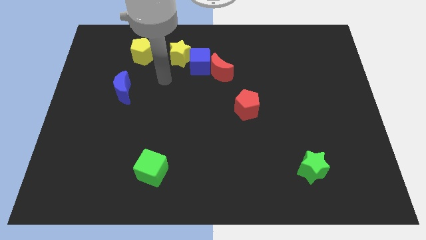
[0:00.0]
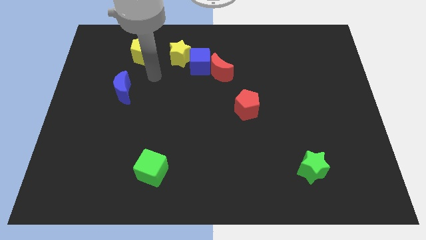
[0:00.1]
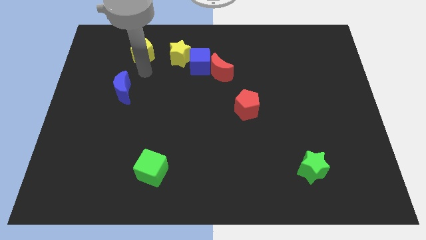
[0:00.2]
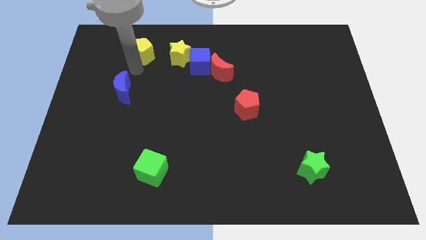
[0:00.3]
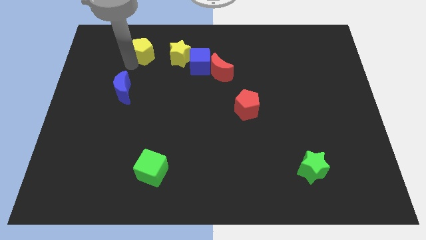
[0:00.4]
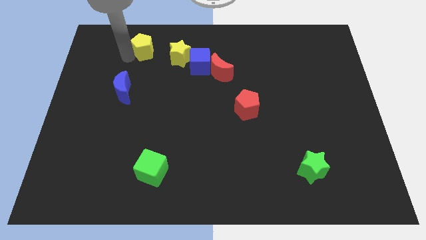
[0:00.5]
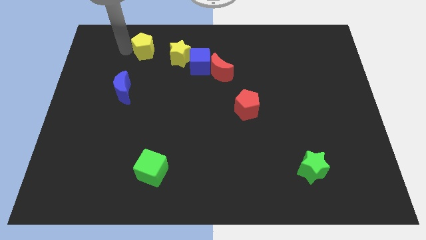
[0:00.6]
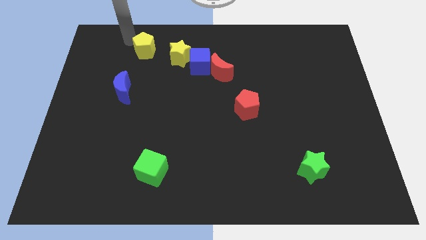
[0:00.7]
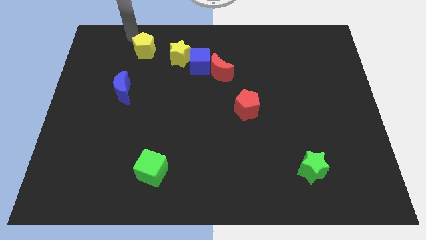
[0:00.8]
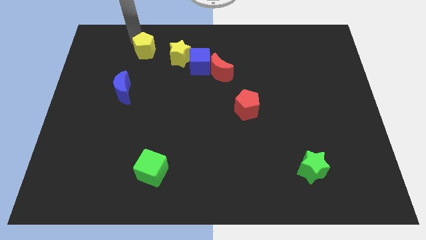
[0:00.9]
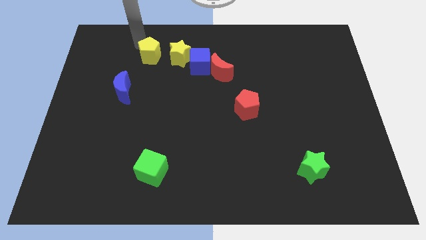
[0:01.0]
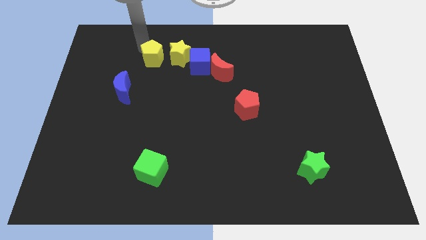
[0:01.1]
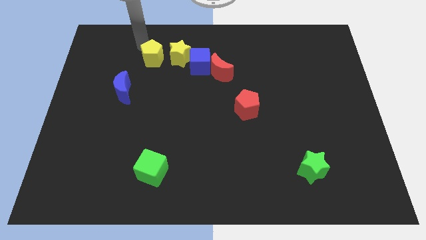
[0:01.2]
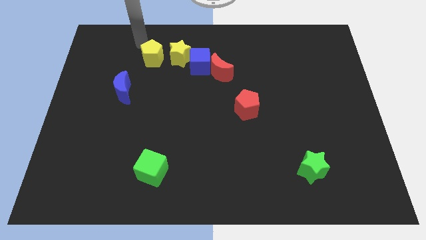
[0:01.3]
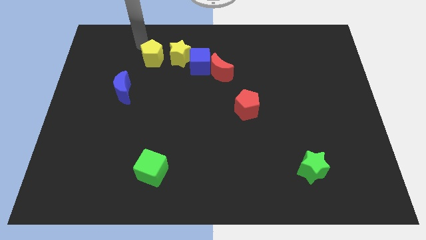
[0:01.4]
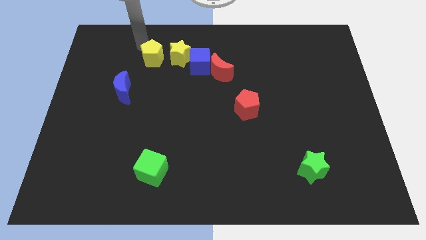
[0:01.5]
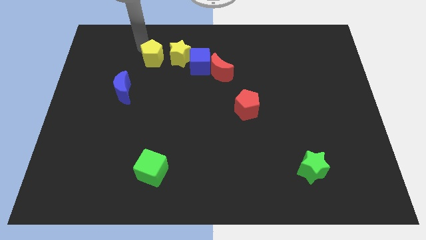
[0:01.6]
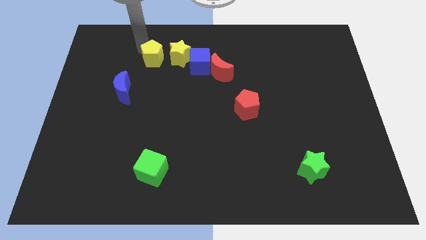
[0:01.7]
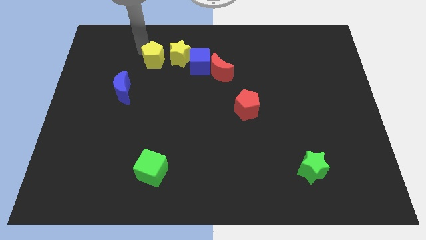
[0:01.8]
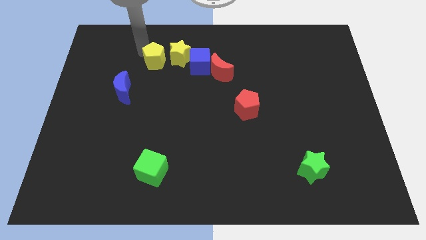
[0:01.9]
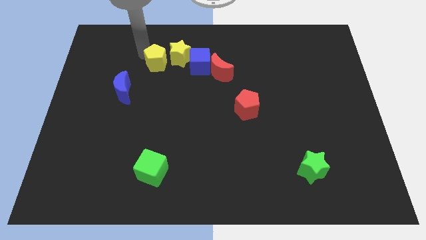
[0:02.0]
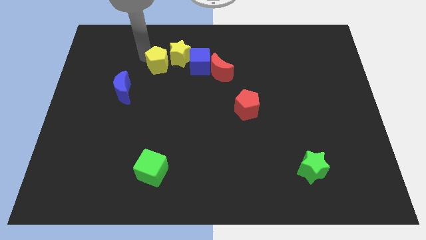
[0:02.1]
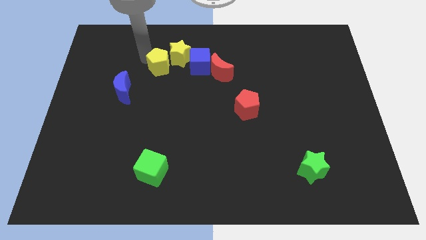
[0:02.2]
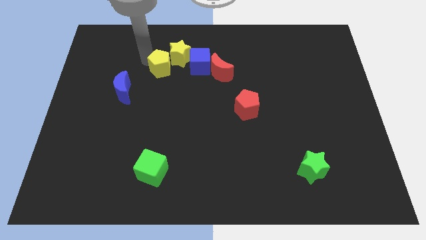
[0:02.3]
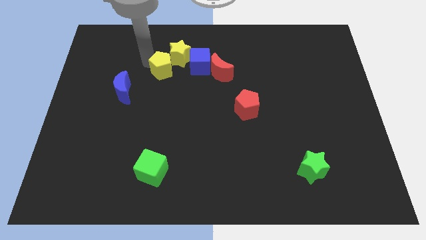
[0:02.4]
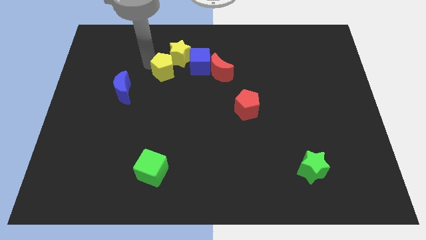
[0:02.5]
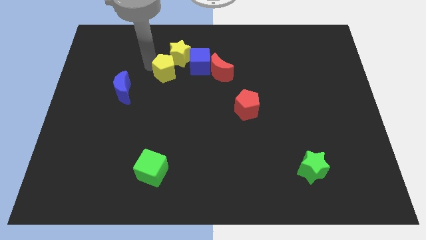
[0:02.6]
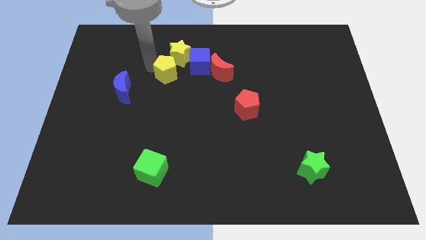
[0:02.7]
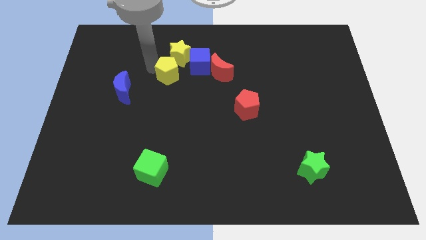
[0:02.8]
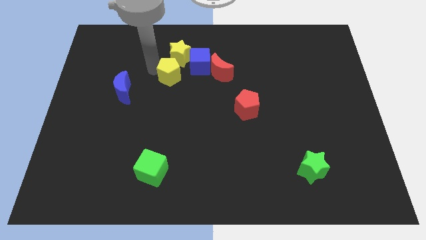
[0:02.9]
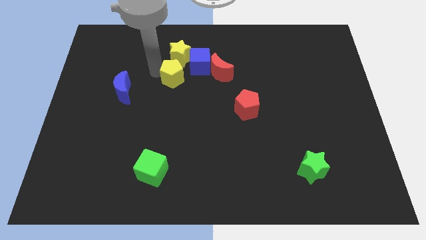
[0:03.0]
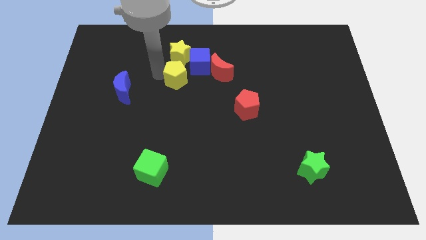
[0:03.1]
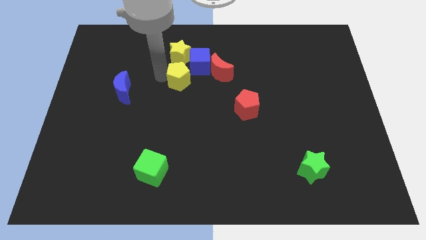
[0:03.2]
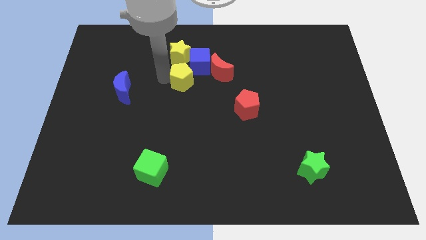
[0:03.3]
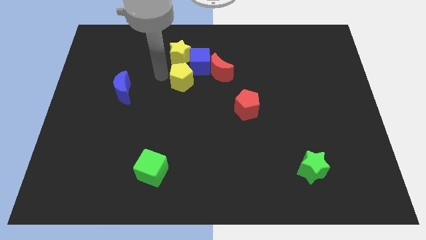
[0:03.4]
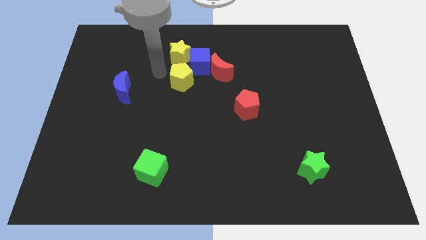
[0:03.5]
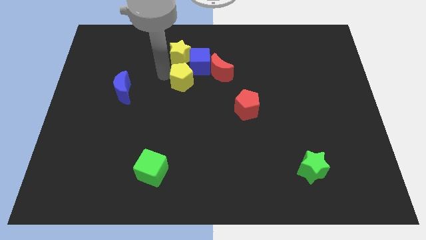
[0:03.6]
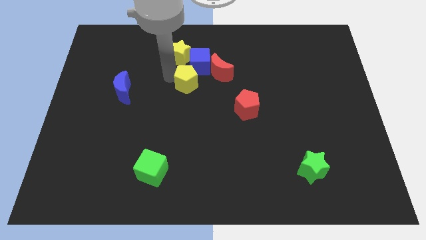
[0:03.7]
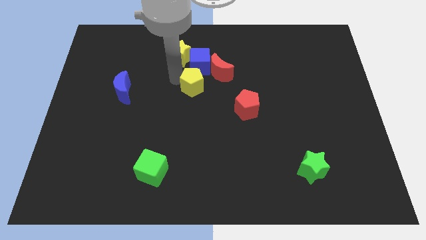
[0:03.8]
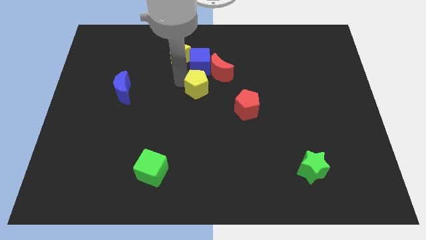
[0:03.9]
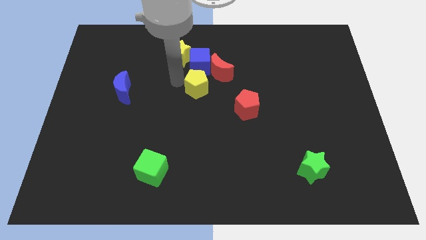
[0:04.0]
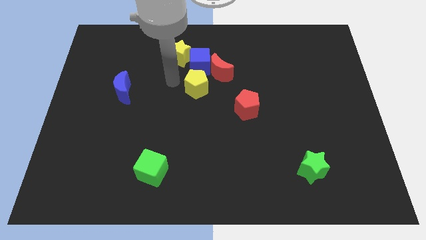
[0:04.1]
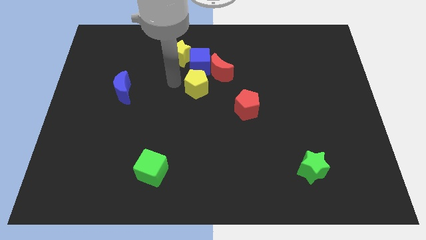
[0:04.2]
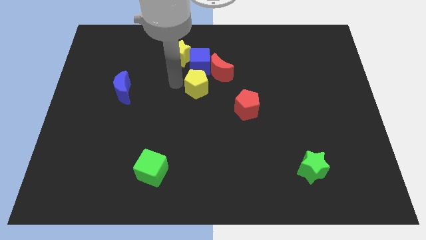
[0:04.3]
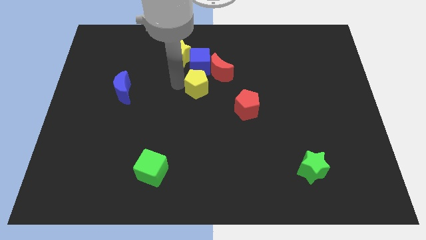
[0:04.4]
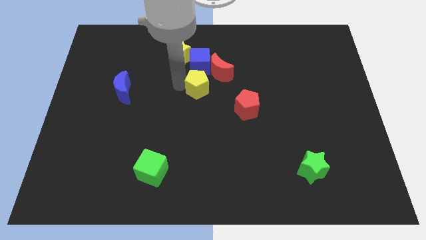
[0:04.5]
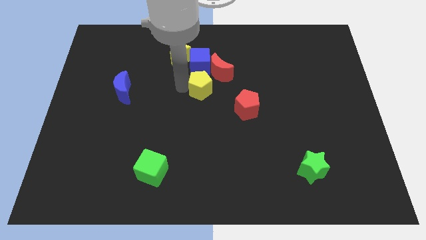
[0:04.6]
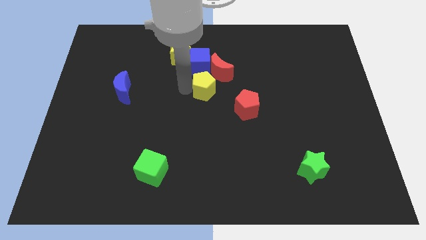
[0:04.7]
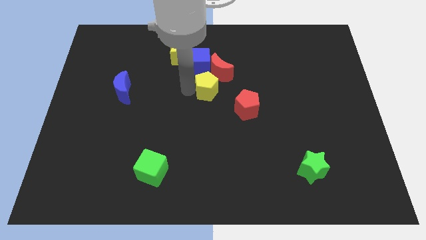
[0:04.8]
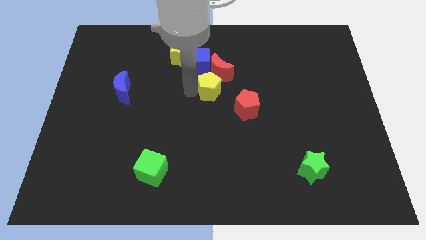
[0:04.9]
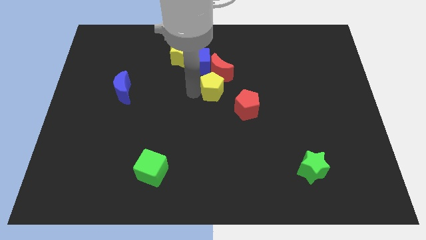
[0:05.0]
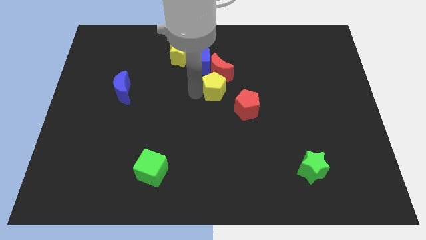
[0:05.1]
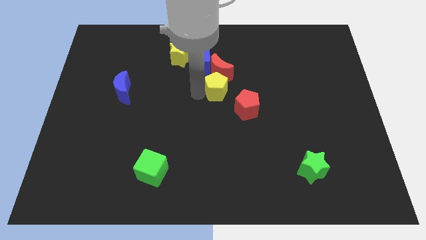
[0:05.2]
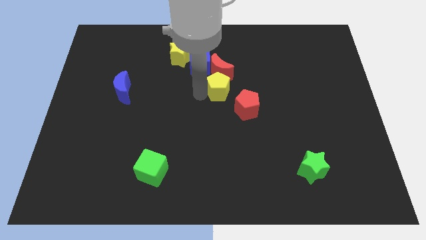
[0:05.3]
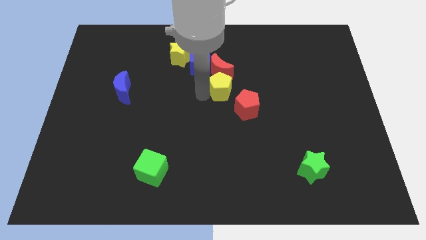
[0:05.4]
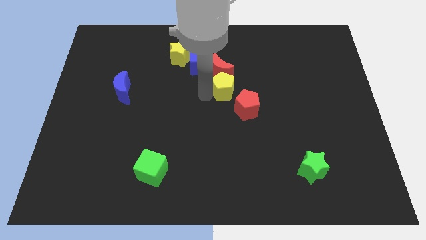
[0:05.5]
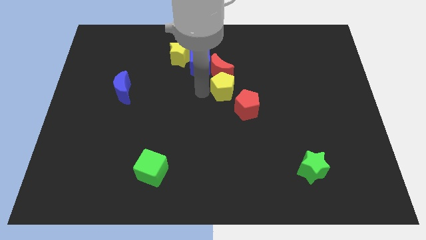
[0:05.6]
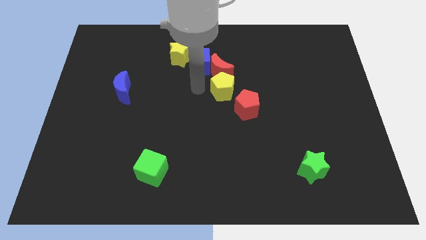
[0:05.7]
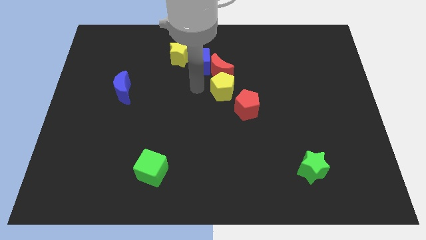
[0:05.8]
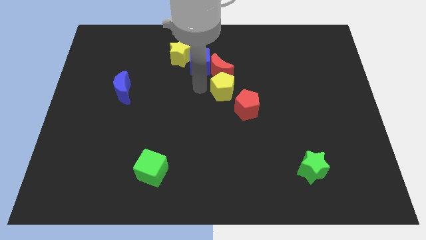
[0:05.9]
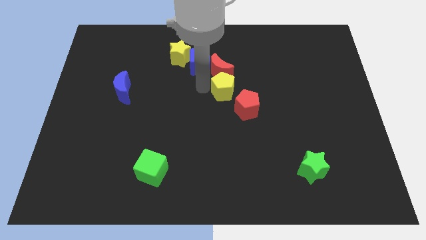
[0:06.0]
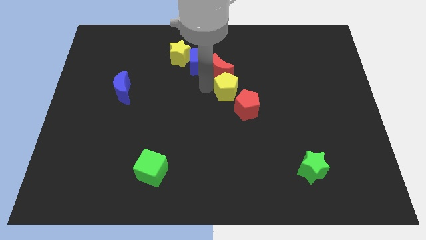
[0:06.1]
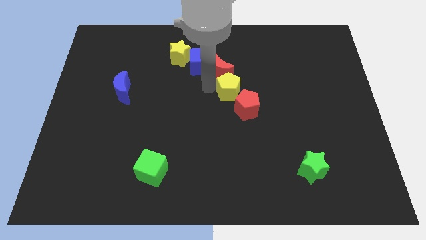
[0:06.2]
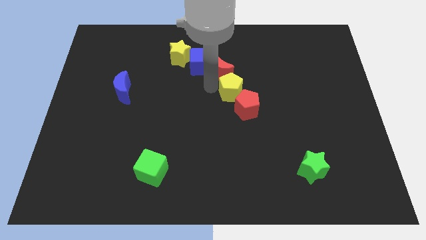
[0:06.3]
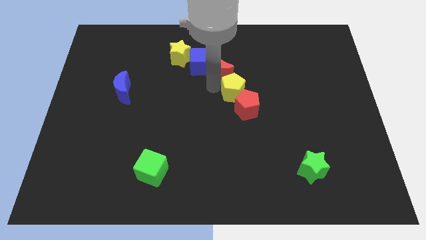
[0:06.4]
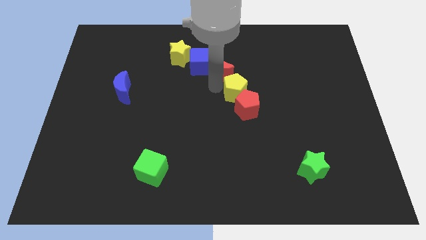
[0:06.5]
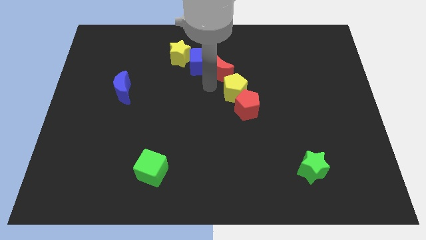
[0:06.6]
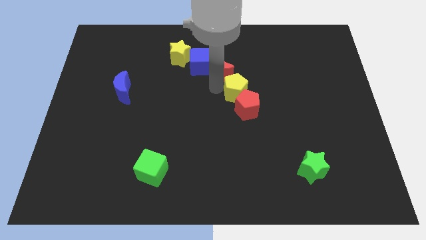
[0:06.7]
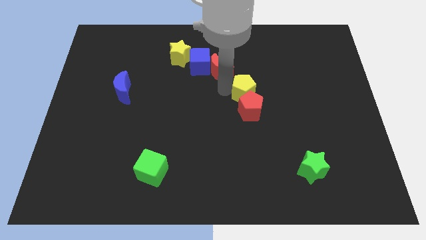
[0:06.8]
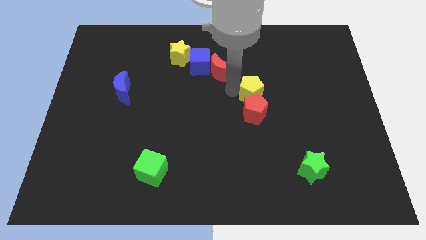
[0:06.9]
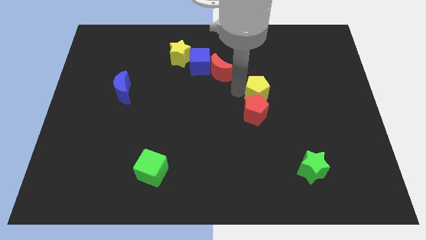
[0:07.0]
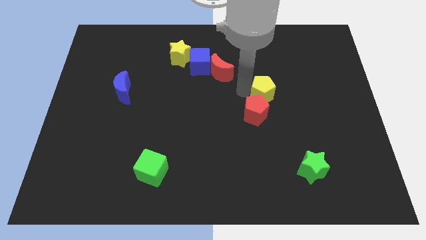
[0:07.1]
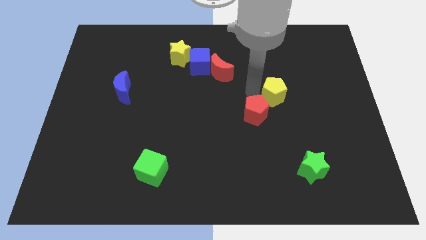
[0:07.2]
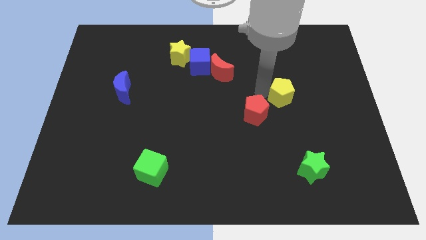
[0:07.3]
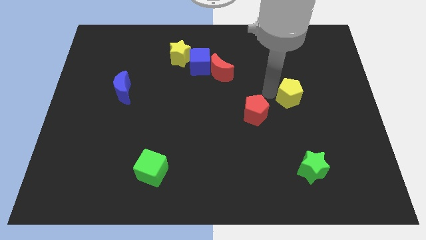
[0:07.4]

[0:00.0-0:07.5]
push the yellow pentagon right of the red pentagon

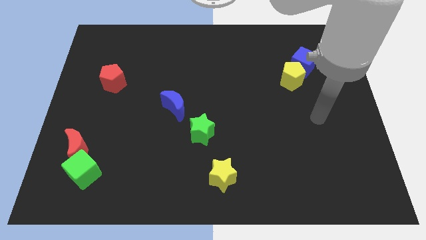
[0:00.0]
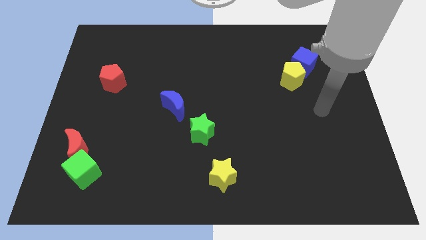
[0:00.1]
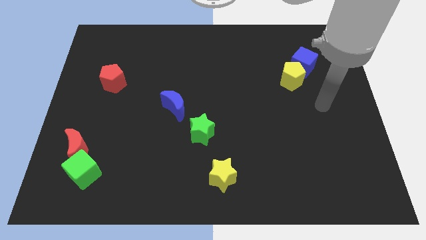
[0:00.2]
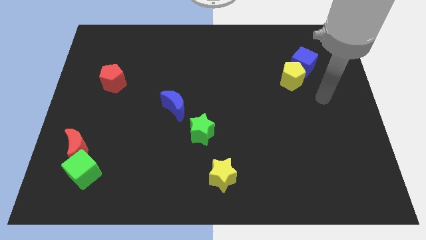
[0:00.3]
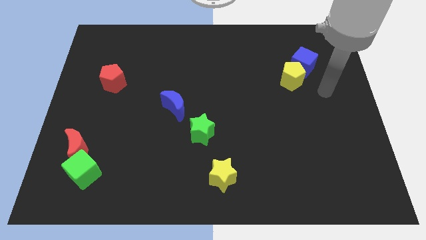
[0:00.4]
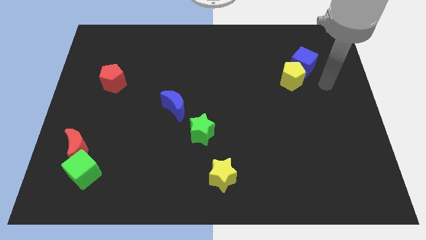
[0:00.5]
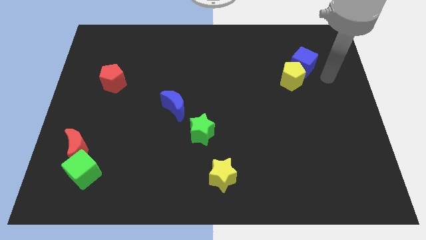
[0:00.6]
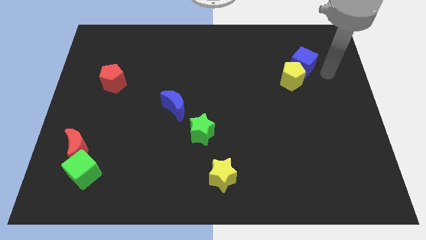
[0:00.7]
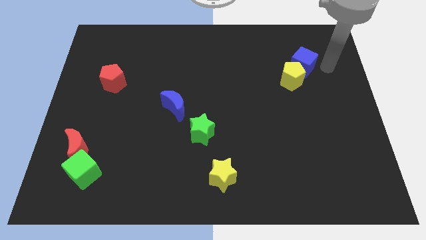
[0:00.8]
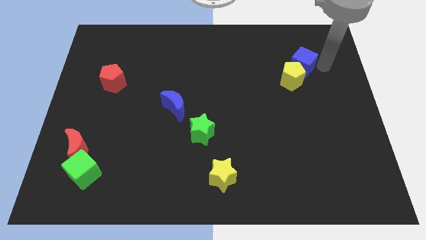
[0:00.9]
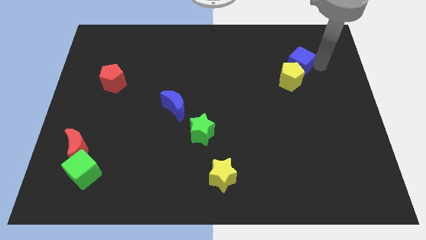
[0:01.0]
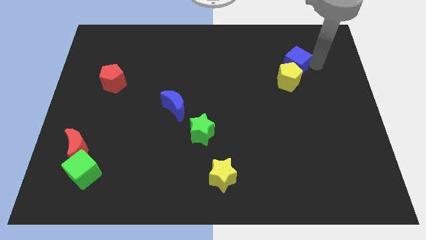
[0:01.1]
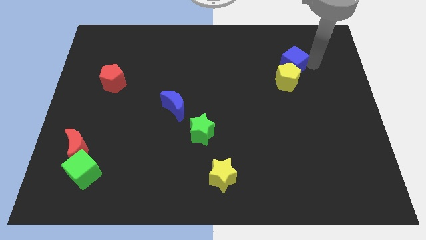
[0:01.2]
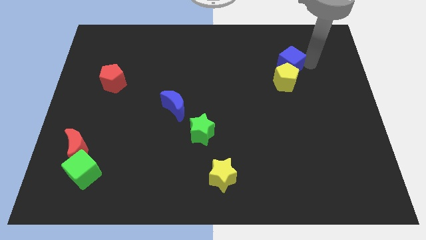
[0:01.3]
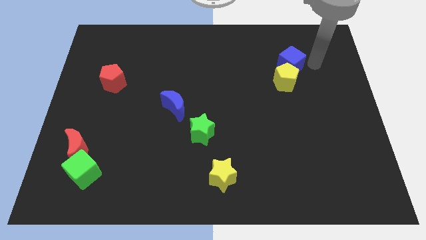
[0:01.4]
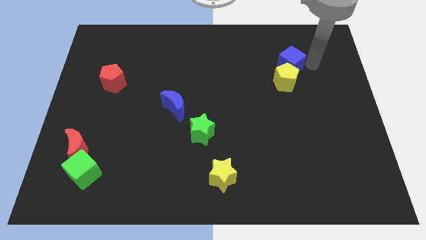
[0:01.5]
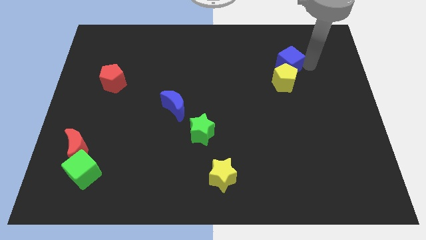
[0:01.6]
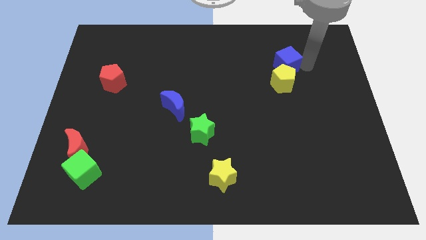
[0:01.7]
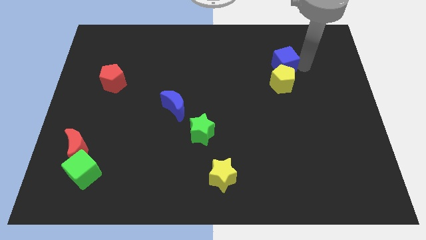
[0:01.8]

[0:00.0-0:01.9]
put the blue cube diagonally up and to the left of the yellow pentagon
